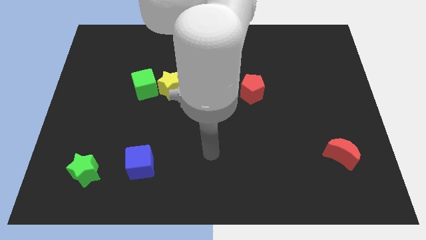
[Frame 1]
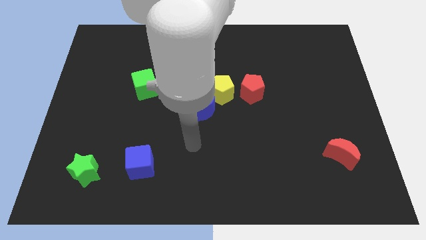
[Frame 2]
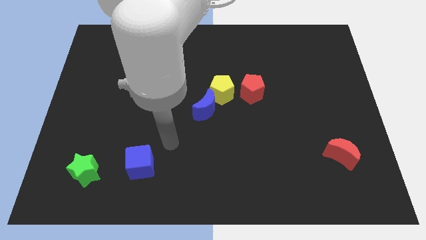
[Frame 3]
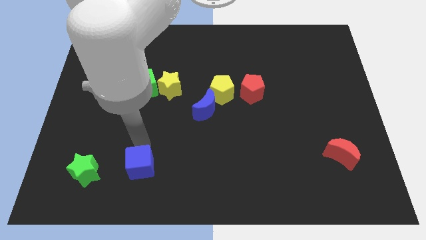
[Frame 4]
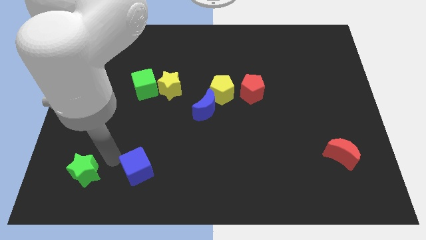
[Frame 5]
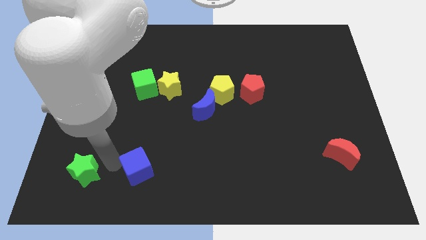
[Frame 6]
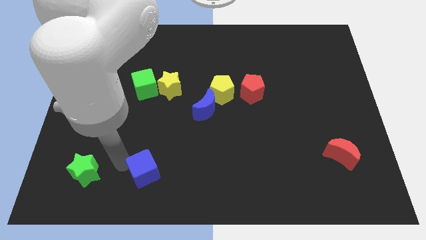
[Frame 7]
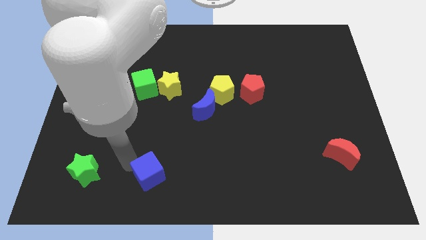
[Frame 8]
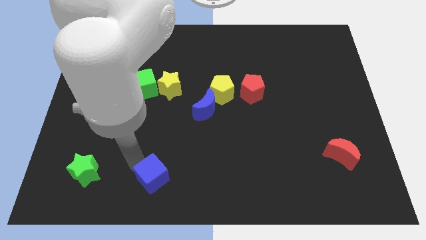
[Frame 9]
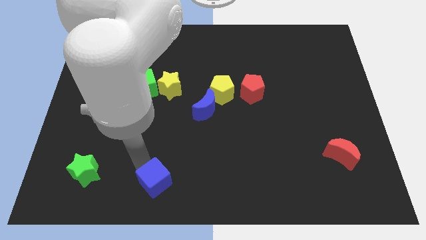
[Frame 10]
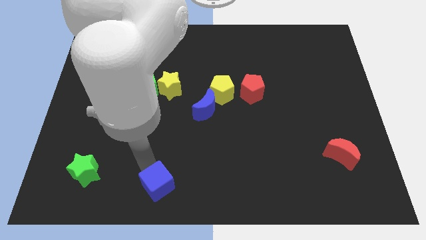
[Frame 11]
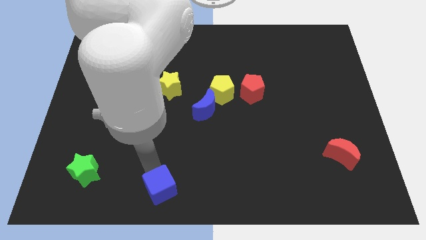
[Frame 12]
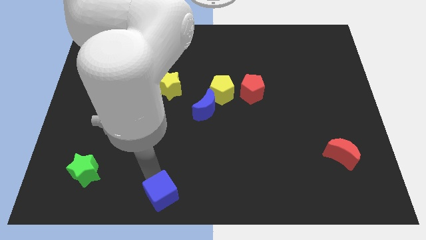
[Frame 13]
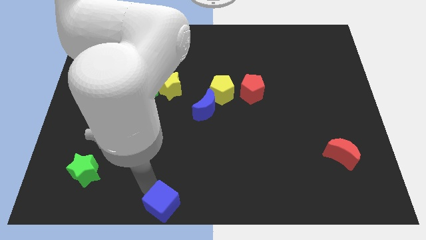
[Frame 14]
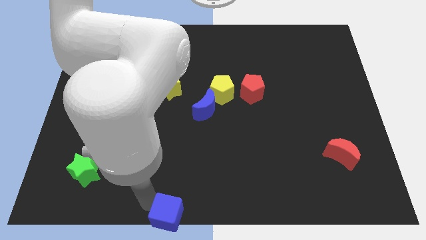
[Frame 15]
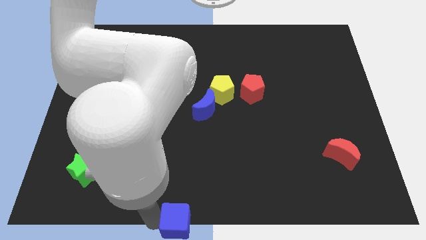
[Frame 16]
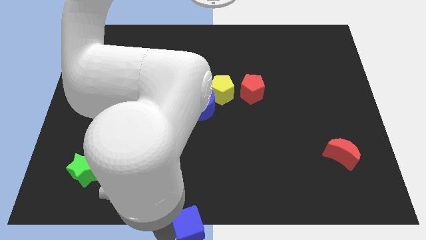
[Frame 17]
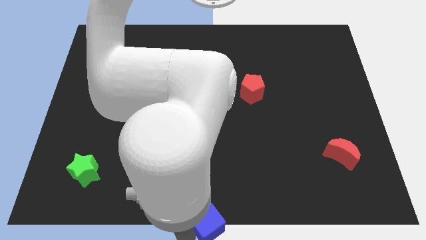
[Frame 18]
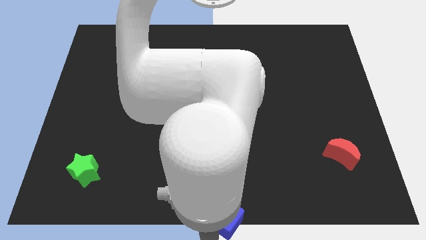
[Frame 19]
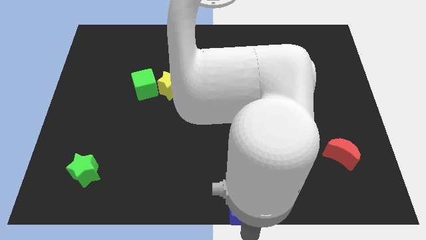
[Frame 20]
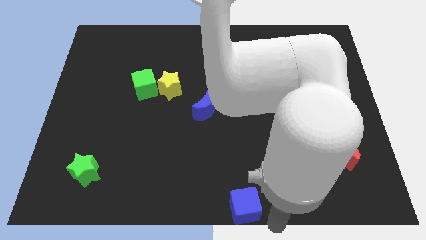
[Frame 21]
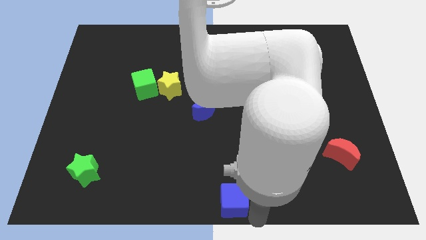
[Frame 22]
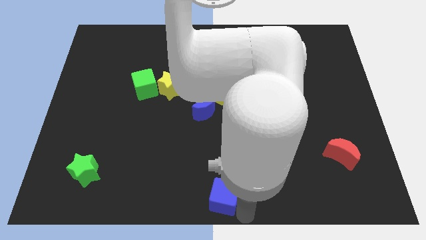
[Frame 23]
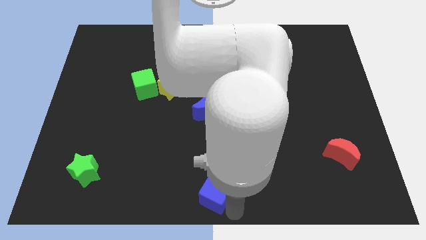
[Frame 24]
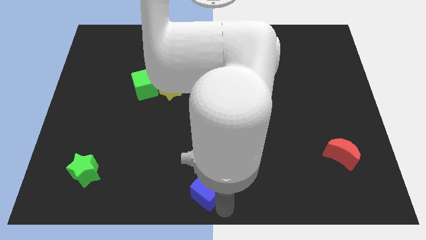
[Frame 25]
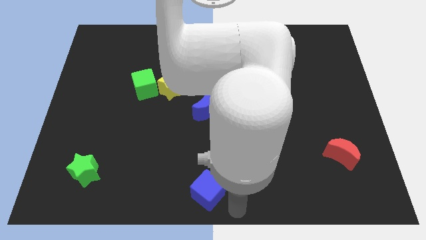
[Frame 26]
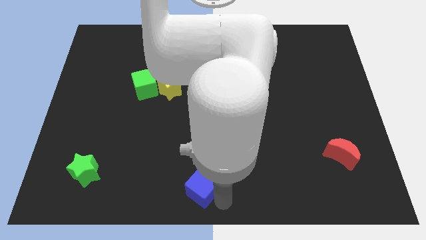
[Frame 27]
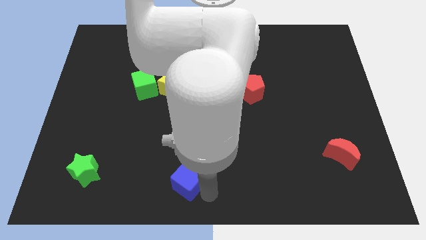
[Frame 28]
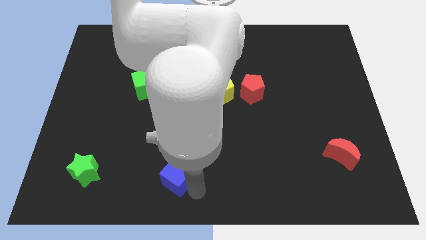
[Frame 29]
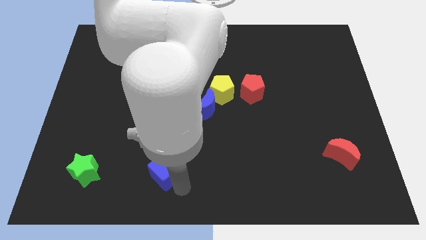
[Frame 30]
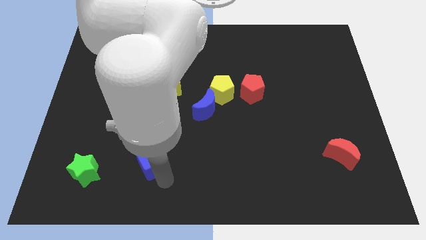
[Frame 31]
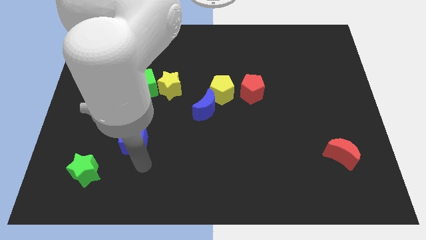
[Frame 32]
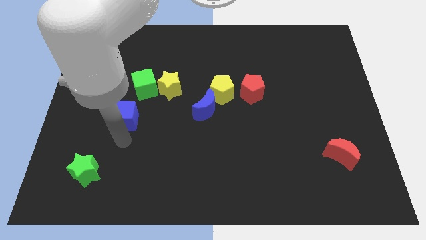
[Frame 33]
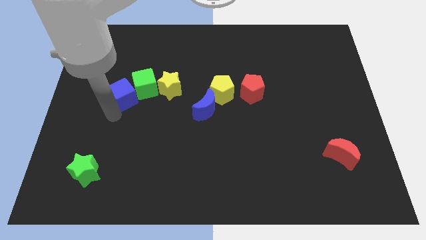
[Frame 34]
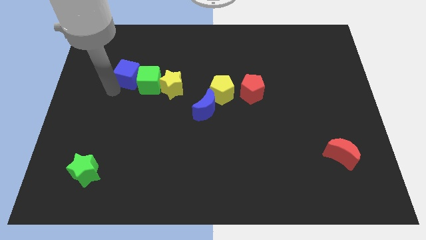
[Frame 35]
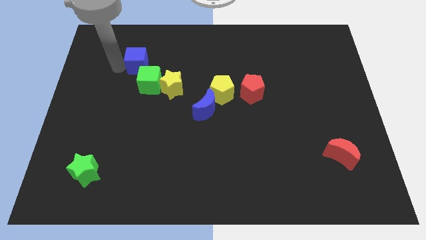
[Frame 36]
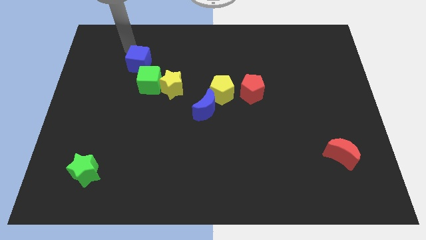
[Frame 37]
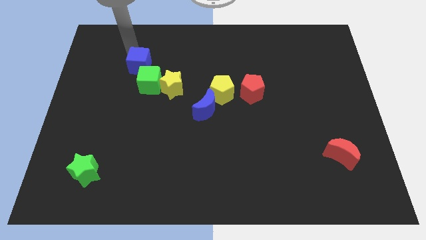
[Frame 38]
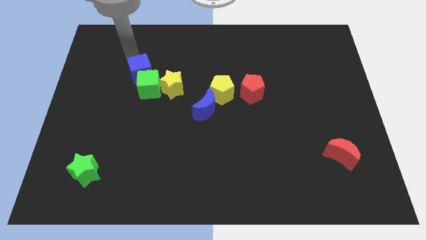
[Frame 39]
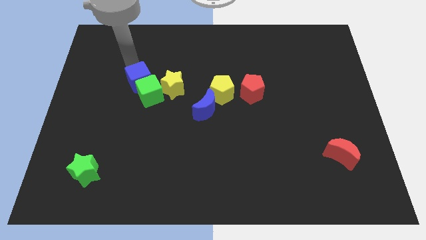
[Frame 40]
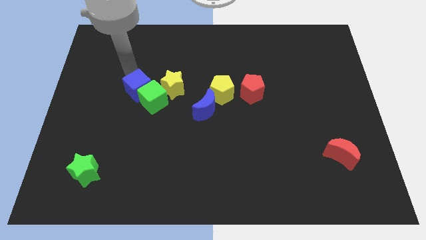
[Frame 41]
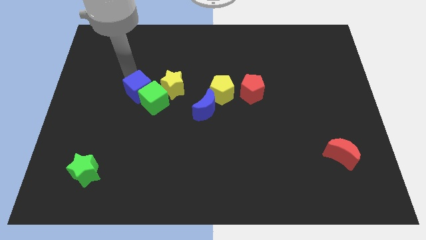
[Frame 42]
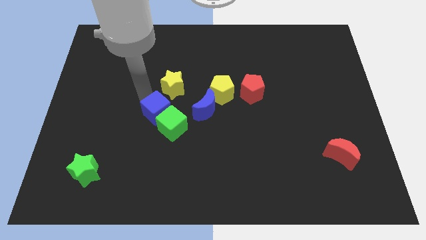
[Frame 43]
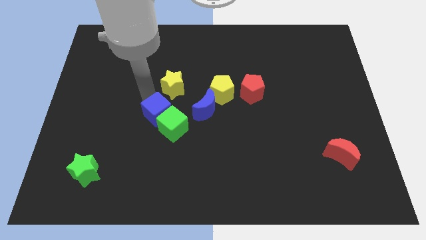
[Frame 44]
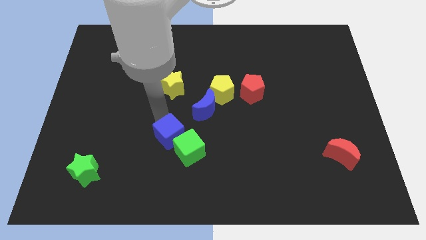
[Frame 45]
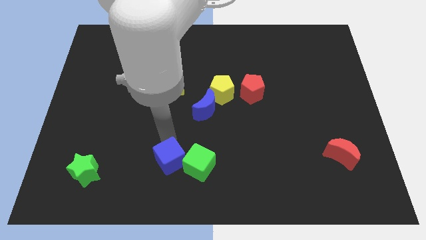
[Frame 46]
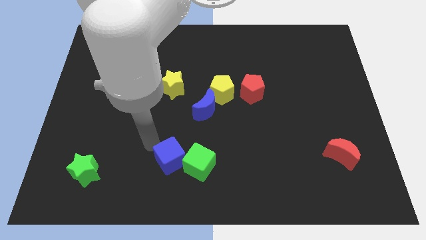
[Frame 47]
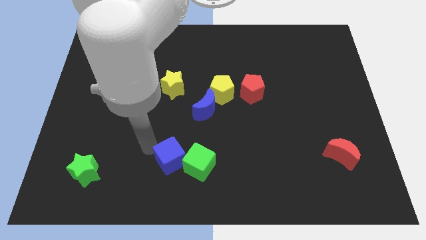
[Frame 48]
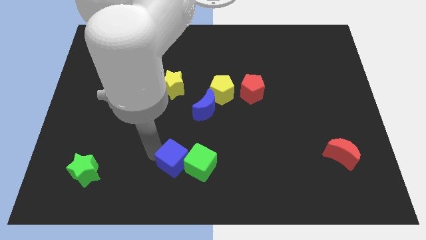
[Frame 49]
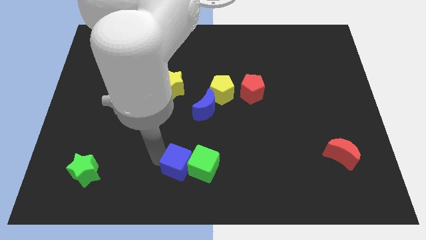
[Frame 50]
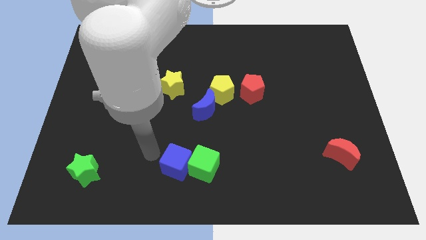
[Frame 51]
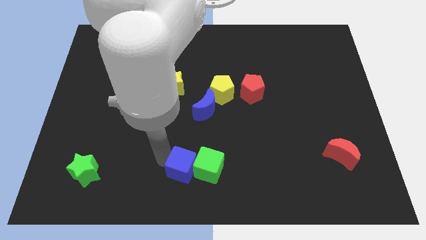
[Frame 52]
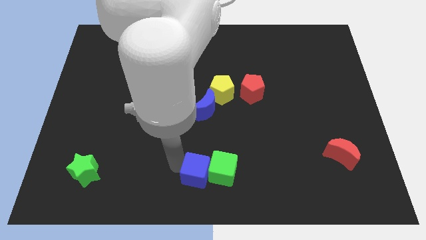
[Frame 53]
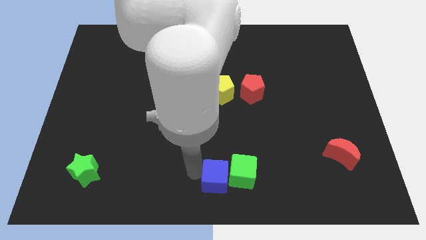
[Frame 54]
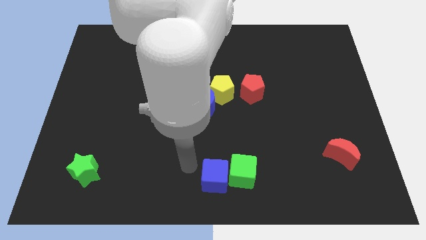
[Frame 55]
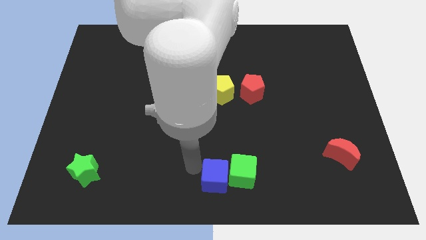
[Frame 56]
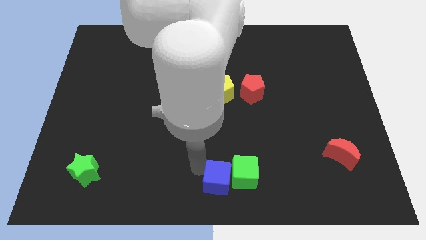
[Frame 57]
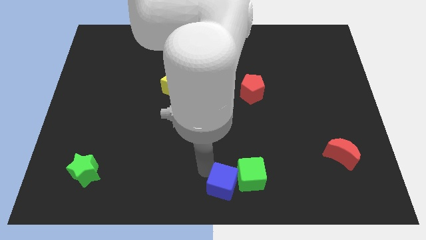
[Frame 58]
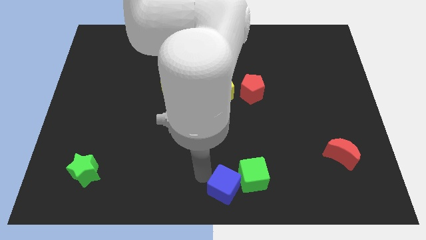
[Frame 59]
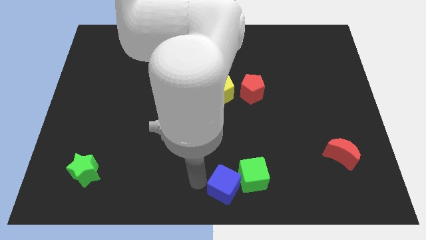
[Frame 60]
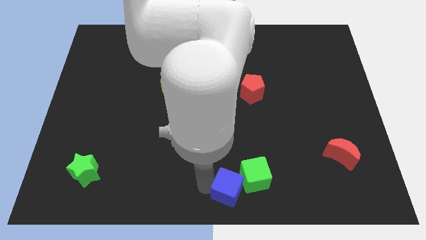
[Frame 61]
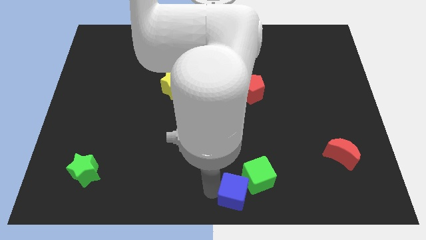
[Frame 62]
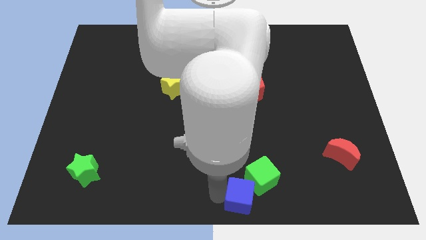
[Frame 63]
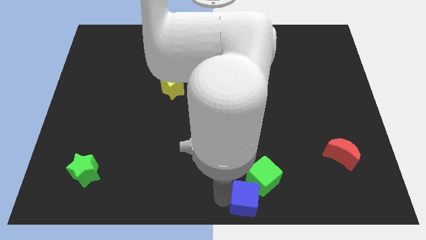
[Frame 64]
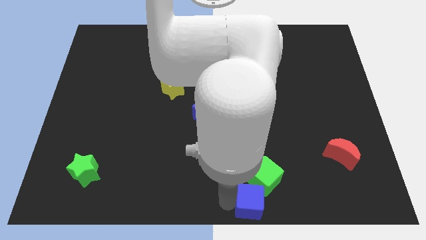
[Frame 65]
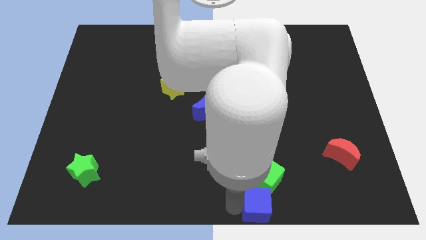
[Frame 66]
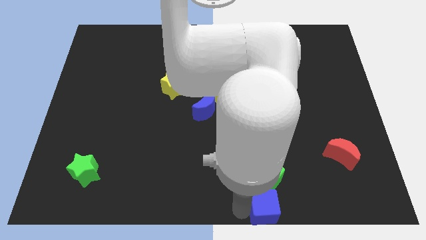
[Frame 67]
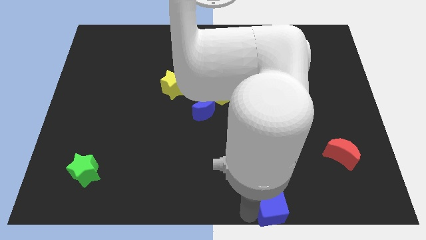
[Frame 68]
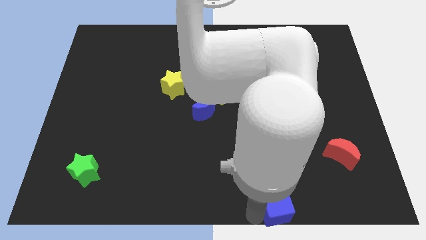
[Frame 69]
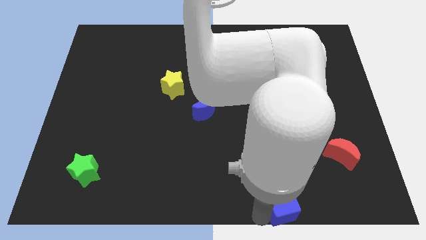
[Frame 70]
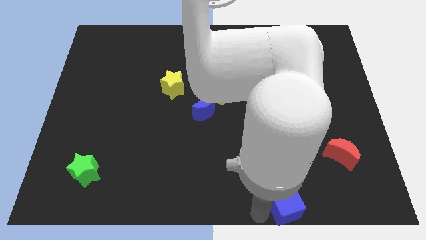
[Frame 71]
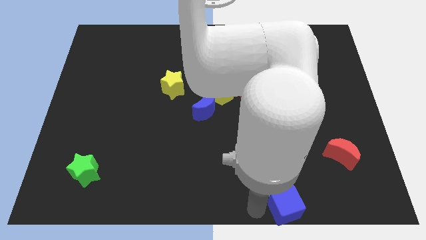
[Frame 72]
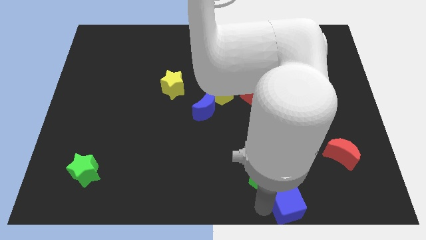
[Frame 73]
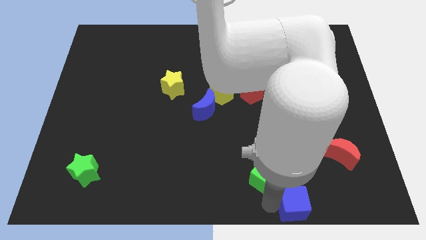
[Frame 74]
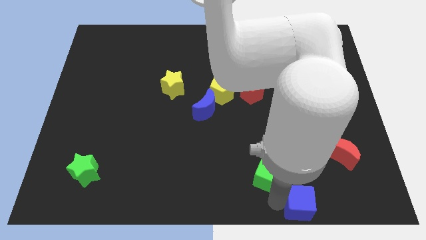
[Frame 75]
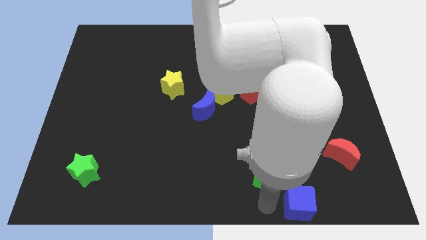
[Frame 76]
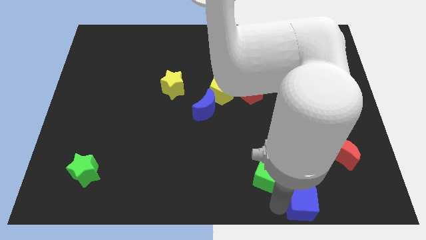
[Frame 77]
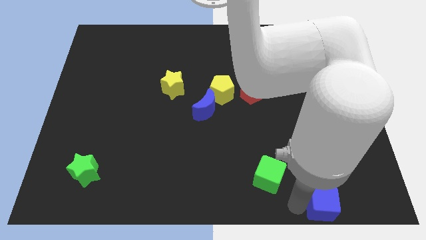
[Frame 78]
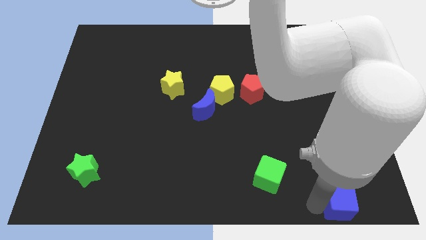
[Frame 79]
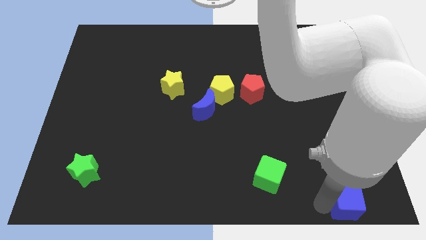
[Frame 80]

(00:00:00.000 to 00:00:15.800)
move the blue cube to the bottom right corner
